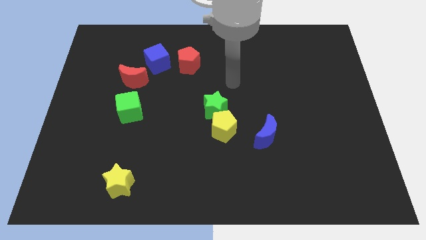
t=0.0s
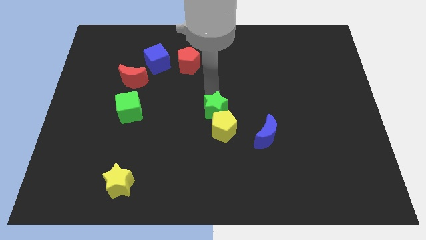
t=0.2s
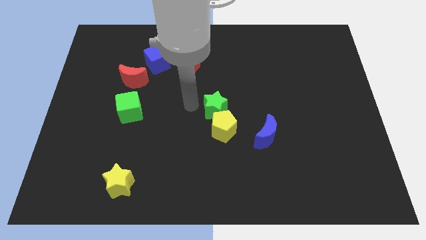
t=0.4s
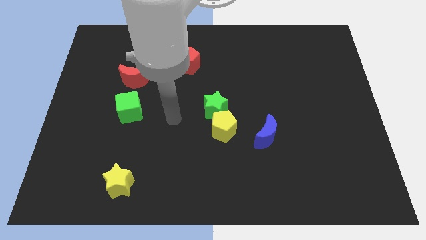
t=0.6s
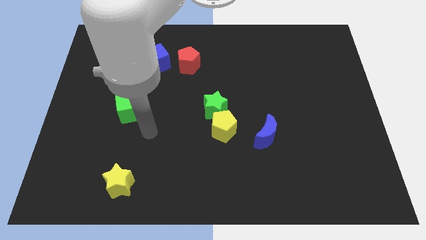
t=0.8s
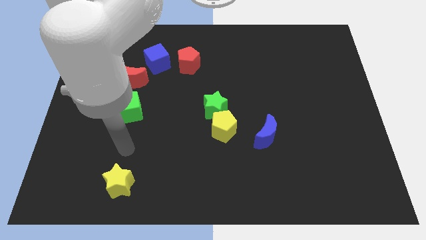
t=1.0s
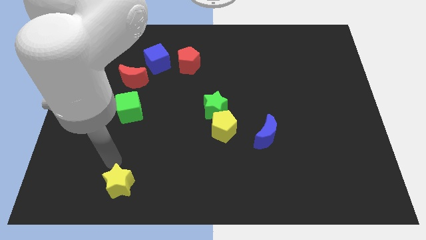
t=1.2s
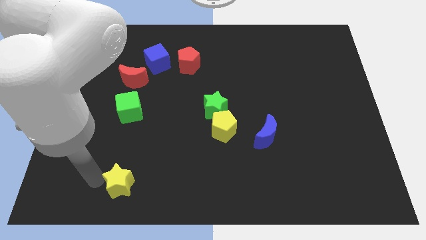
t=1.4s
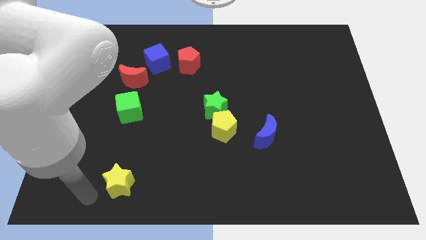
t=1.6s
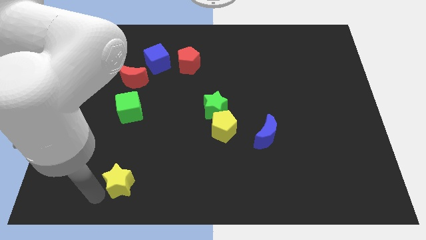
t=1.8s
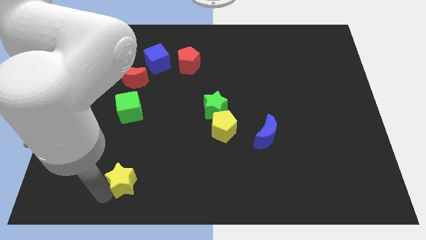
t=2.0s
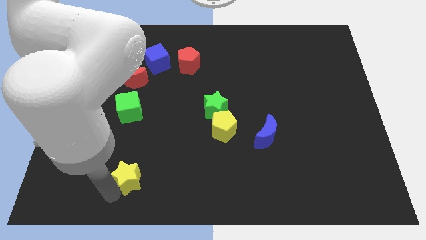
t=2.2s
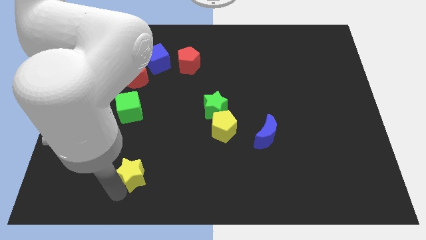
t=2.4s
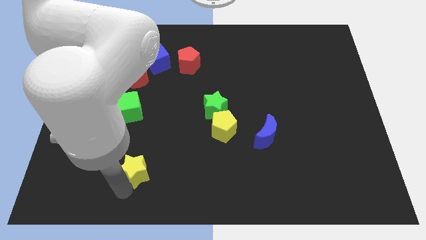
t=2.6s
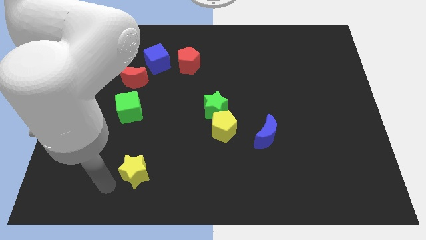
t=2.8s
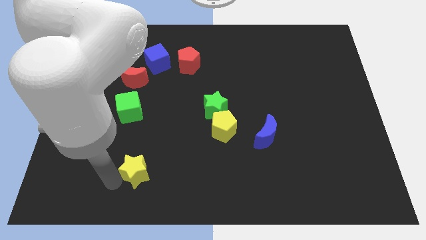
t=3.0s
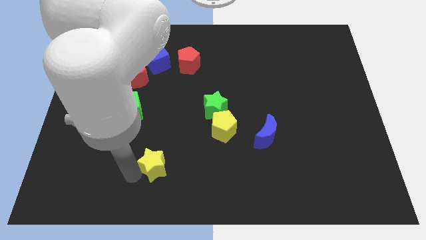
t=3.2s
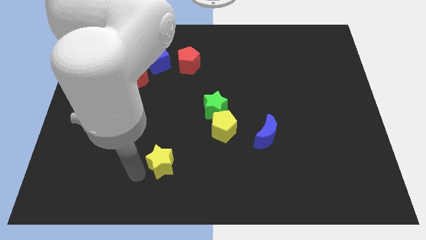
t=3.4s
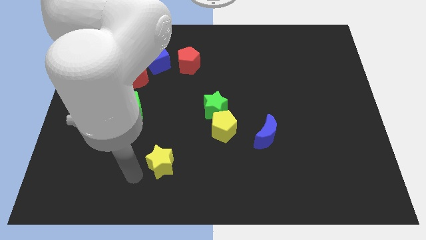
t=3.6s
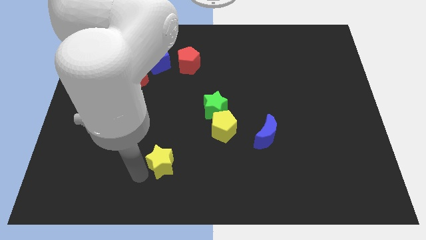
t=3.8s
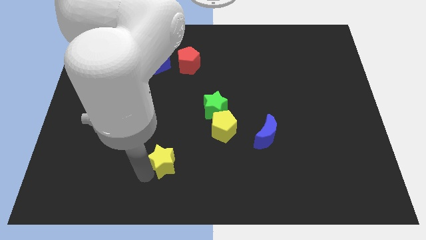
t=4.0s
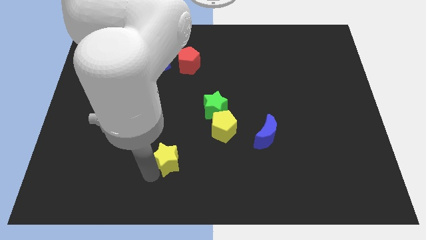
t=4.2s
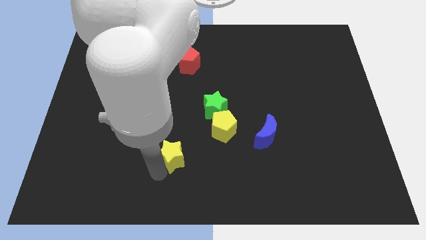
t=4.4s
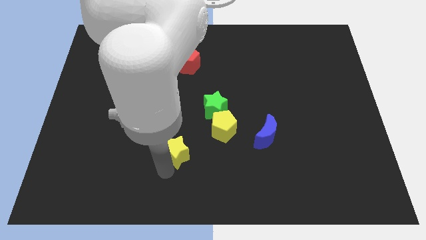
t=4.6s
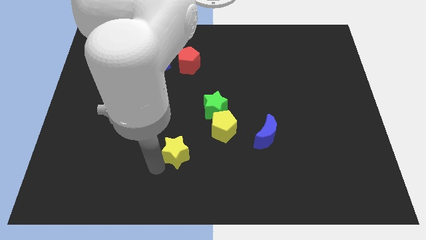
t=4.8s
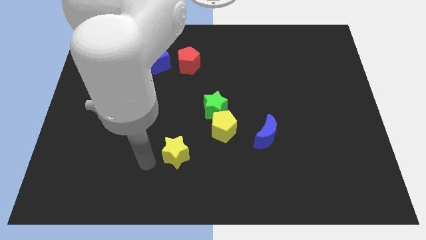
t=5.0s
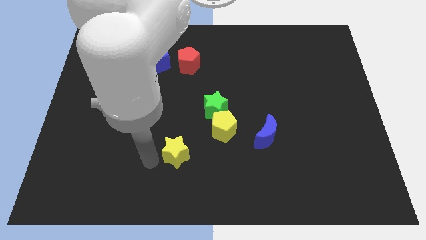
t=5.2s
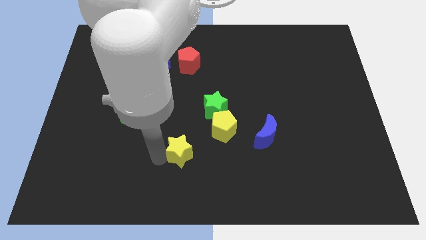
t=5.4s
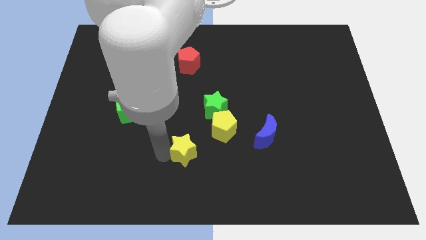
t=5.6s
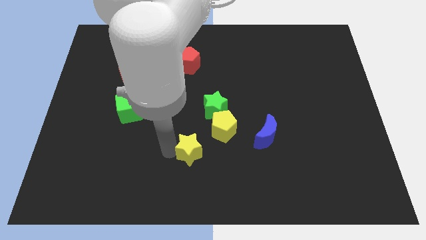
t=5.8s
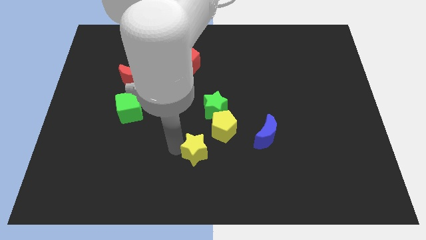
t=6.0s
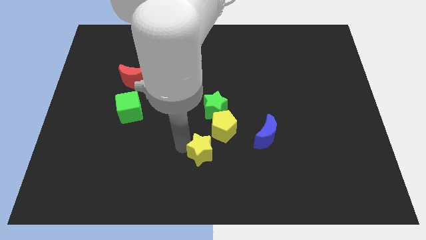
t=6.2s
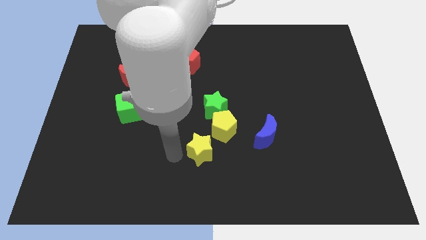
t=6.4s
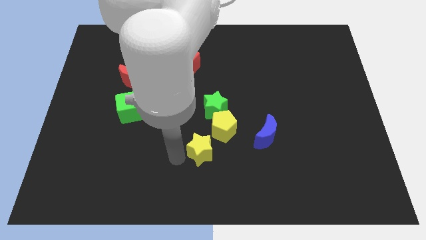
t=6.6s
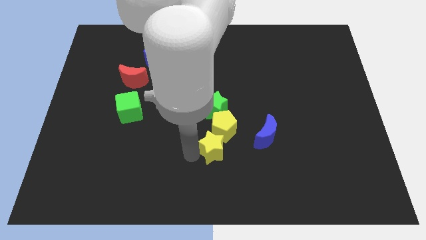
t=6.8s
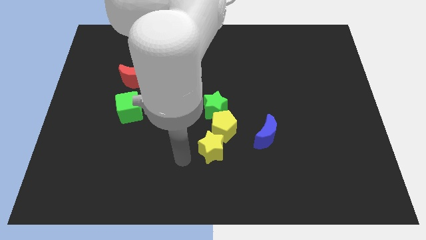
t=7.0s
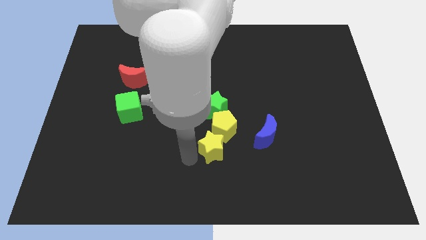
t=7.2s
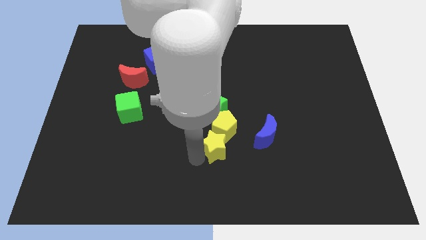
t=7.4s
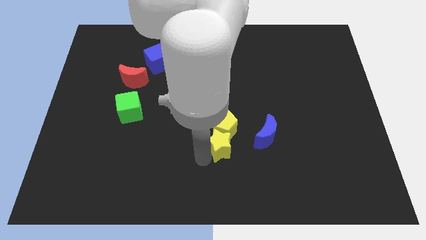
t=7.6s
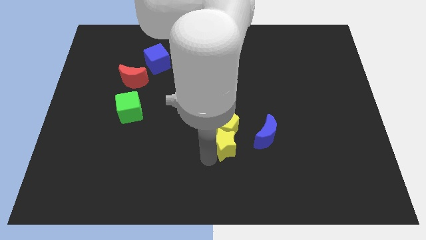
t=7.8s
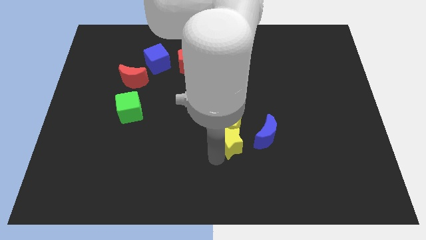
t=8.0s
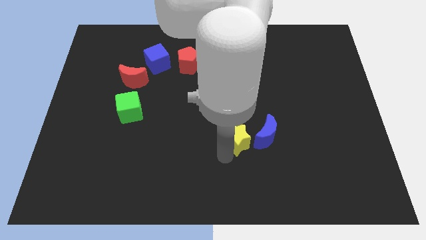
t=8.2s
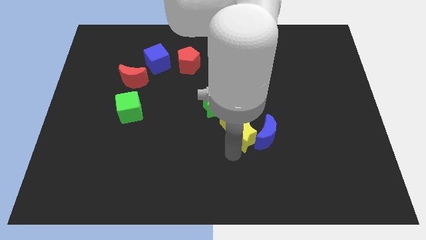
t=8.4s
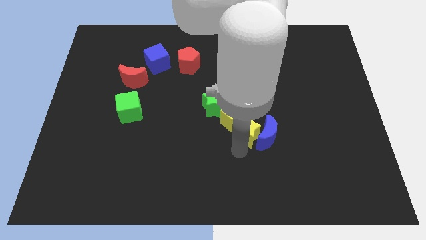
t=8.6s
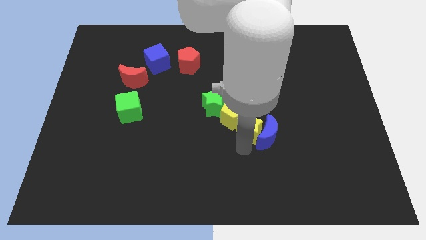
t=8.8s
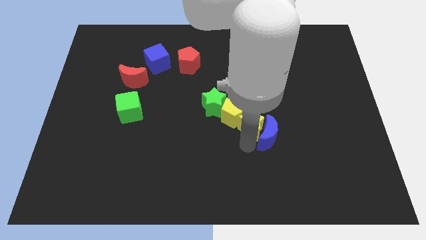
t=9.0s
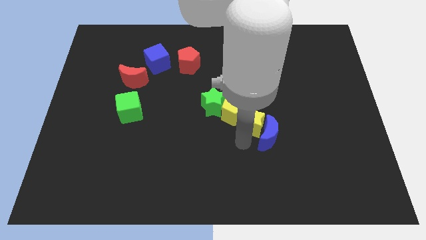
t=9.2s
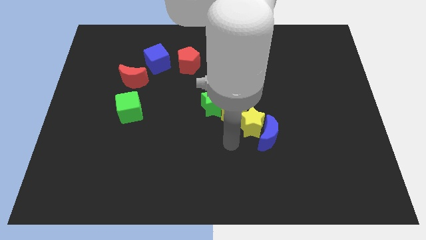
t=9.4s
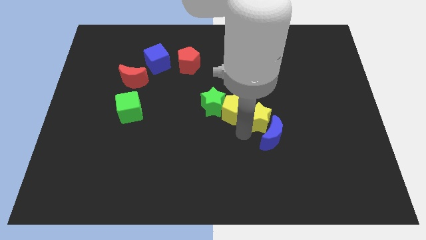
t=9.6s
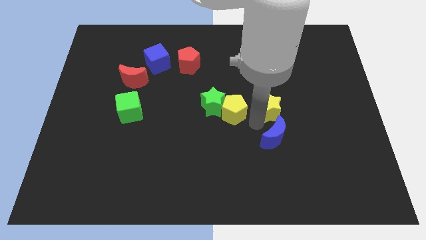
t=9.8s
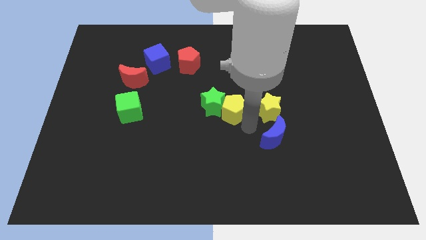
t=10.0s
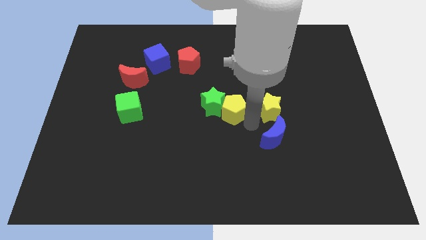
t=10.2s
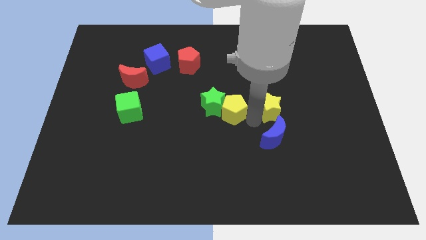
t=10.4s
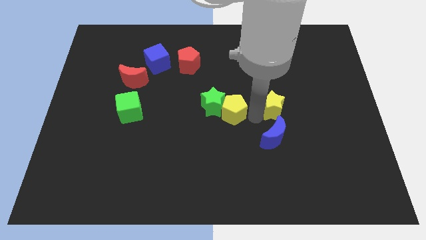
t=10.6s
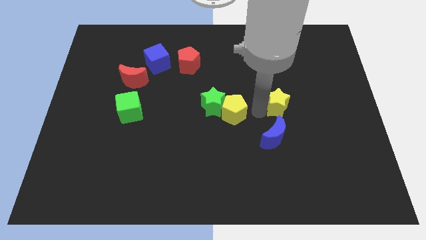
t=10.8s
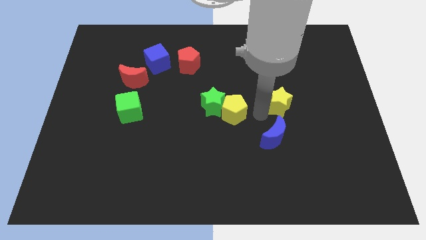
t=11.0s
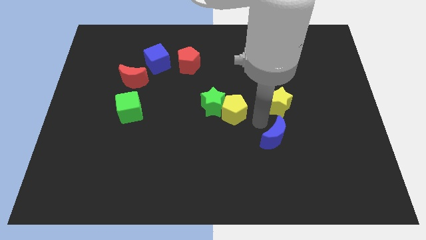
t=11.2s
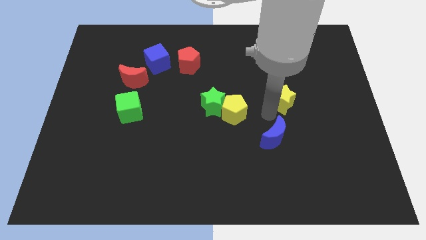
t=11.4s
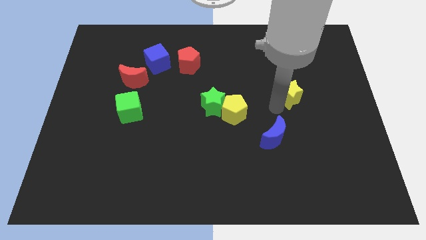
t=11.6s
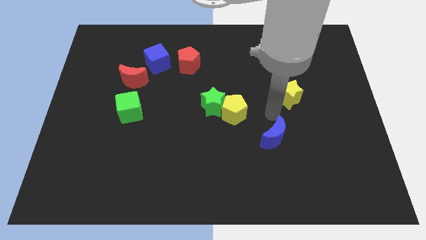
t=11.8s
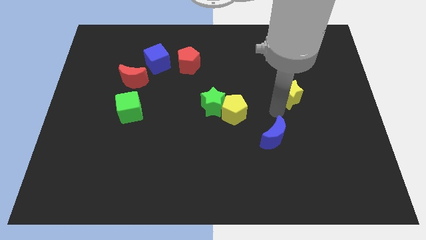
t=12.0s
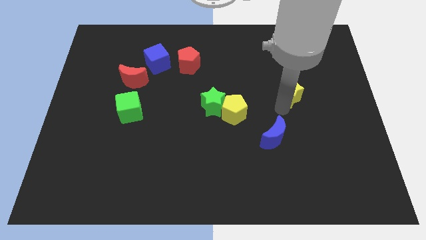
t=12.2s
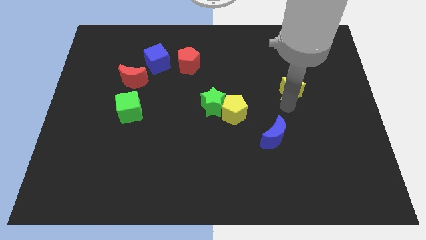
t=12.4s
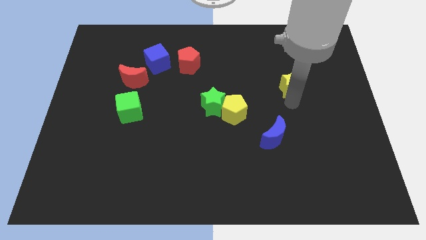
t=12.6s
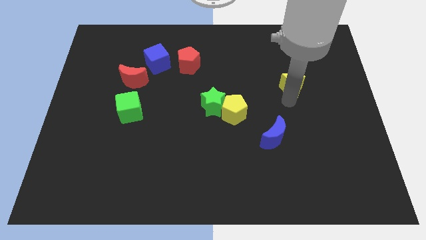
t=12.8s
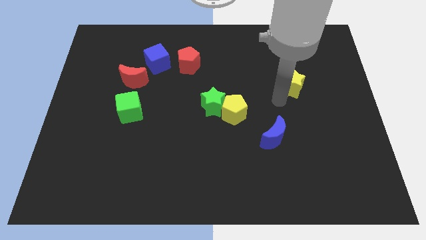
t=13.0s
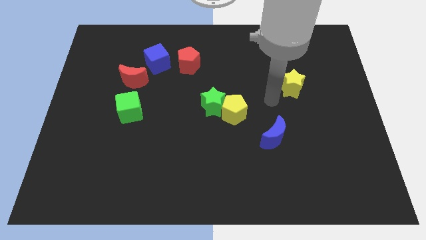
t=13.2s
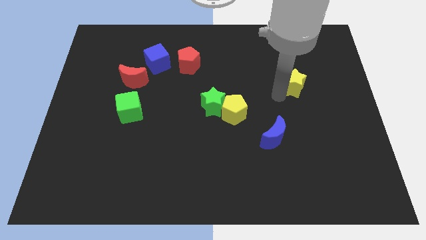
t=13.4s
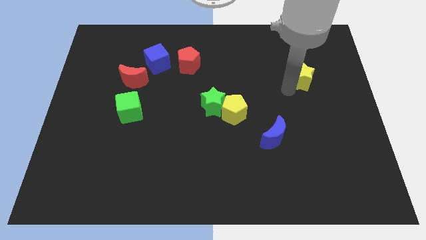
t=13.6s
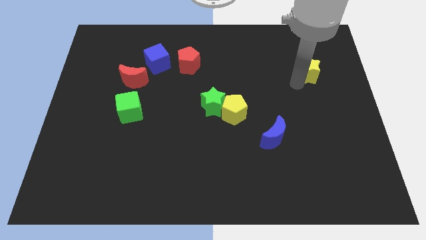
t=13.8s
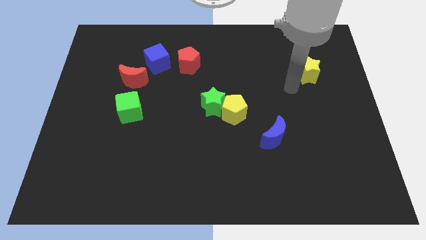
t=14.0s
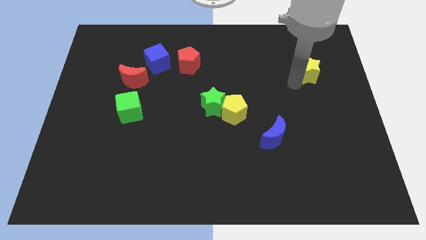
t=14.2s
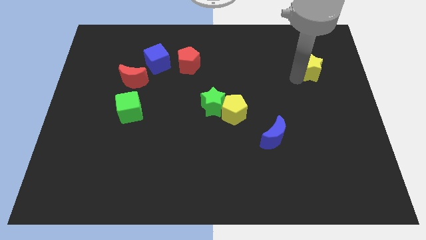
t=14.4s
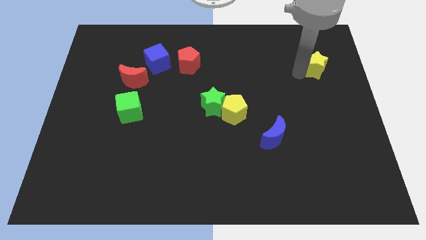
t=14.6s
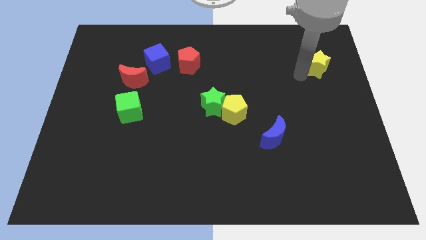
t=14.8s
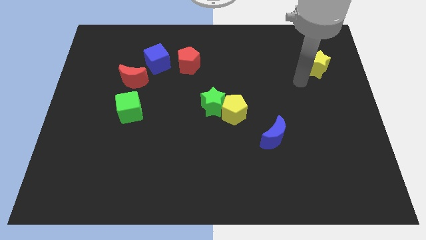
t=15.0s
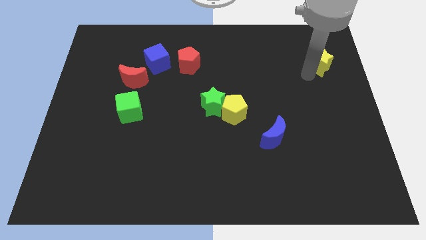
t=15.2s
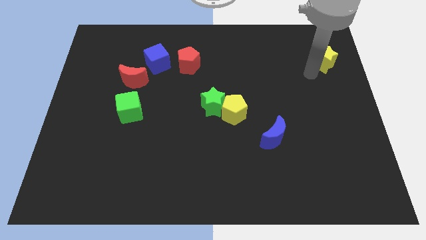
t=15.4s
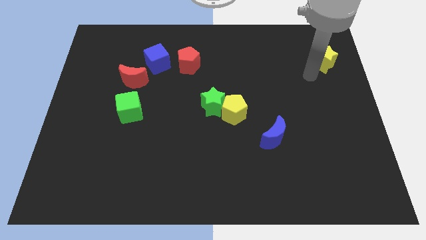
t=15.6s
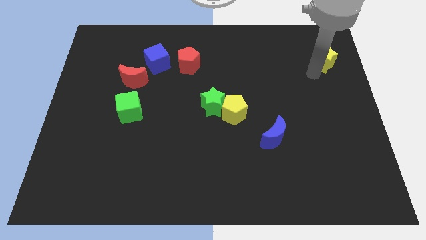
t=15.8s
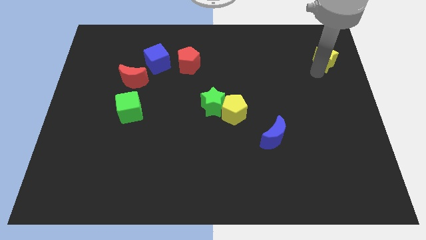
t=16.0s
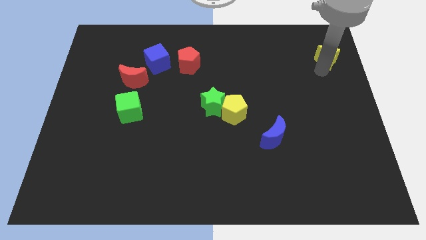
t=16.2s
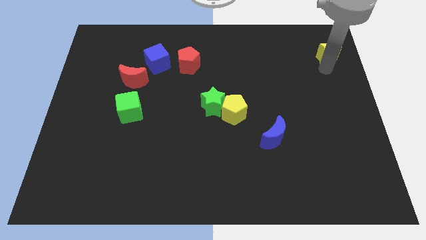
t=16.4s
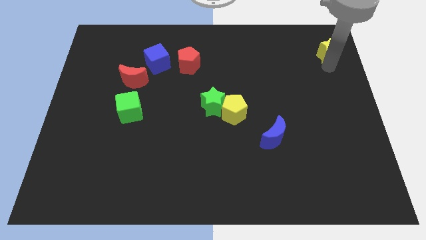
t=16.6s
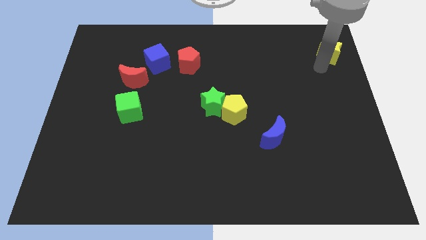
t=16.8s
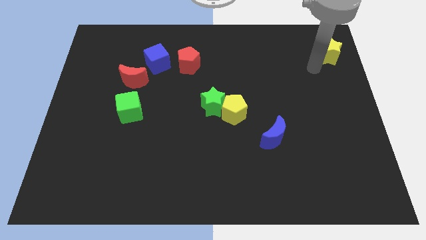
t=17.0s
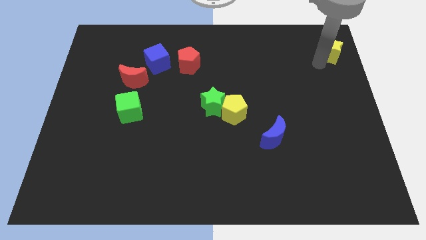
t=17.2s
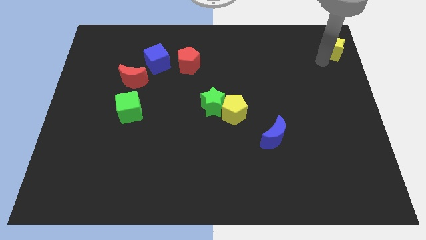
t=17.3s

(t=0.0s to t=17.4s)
slide the yellow star to the top right corner
